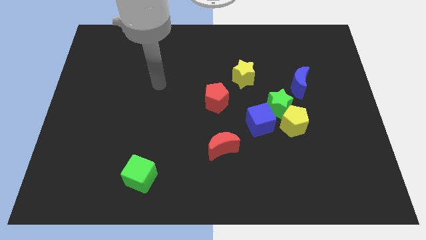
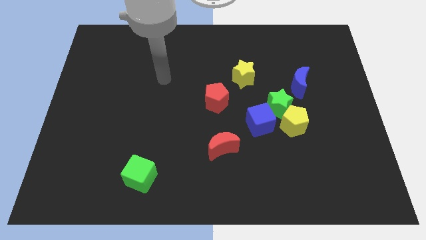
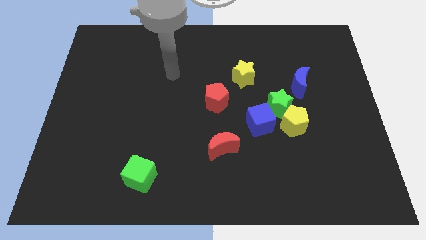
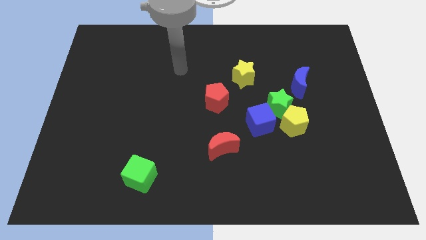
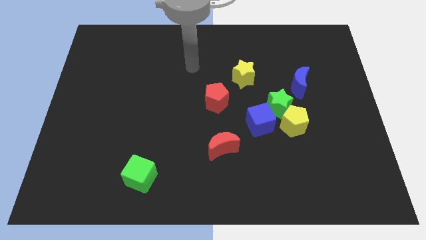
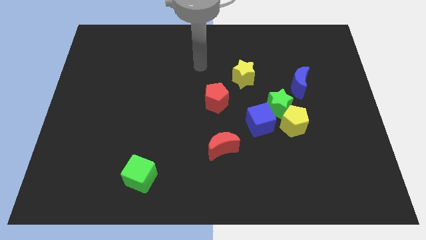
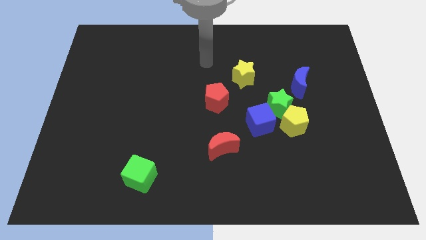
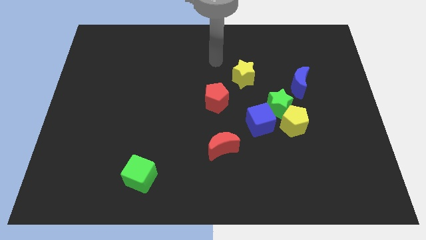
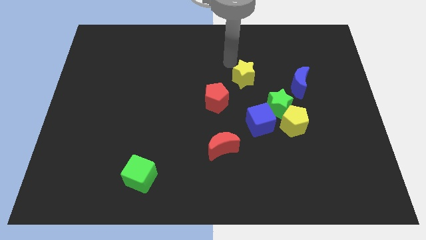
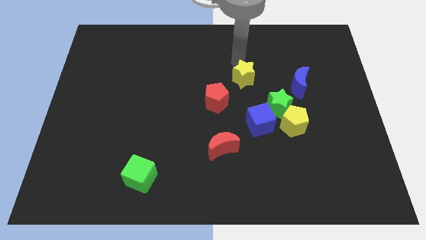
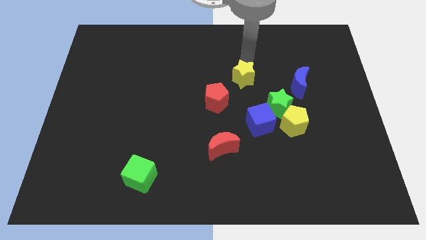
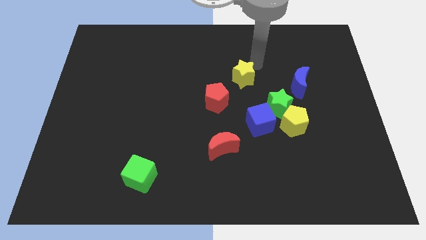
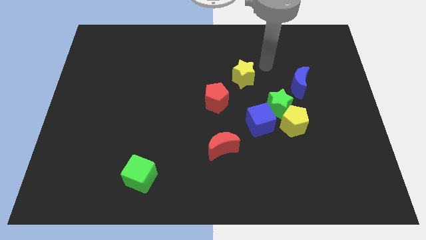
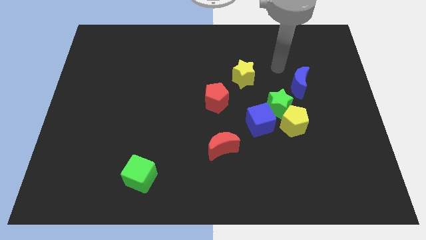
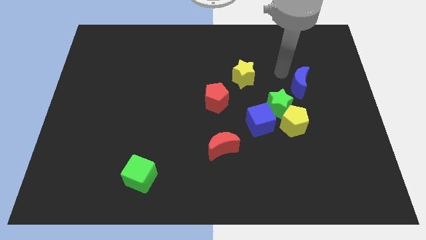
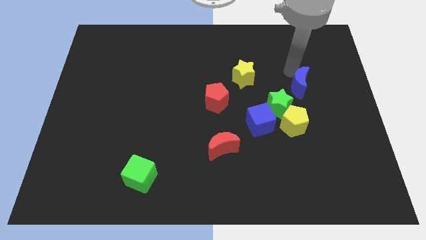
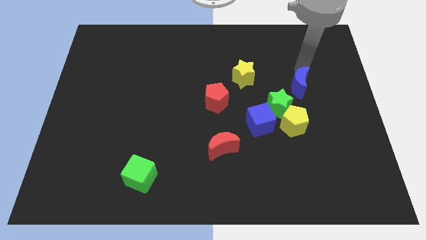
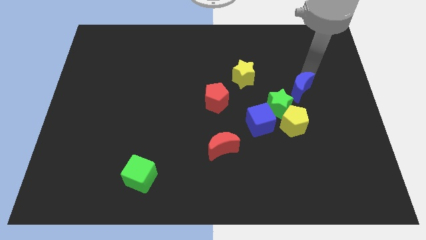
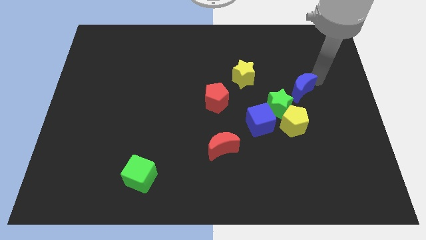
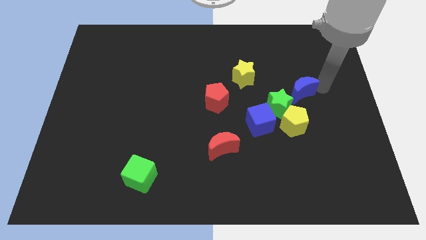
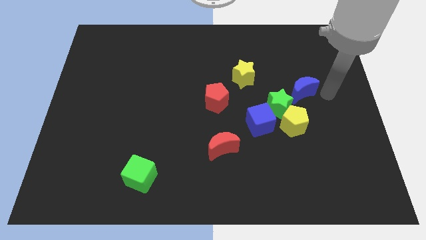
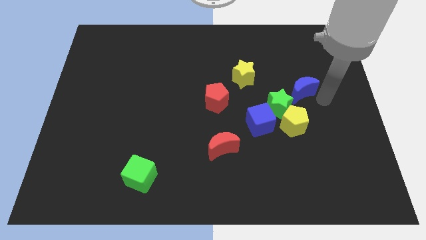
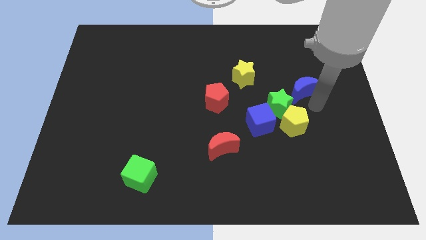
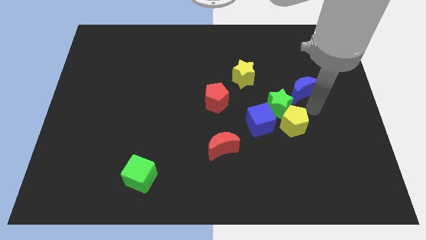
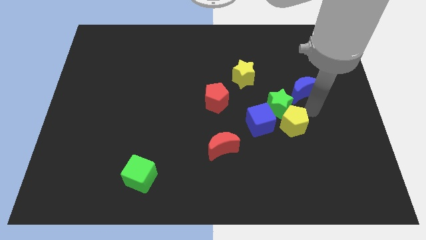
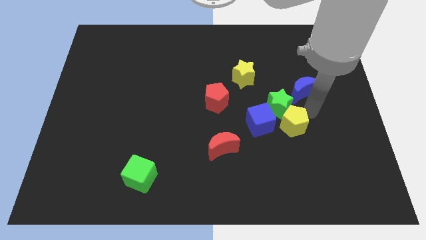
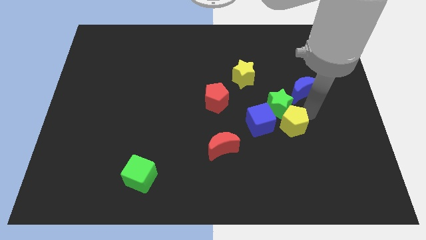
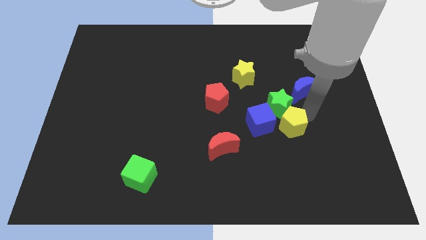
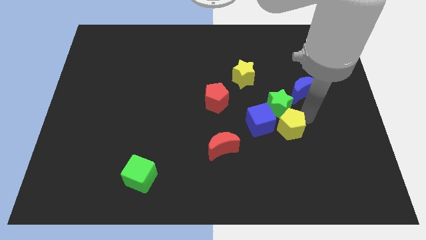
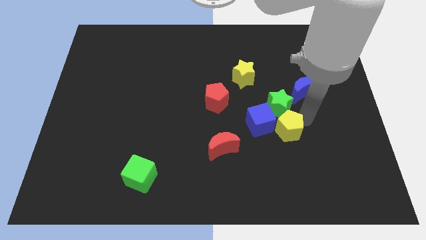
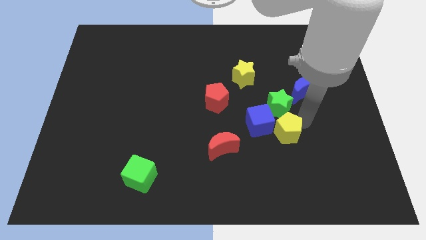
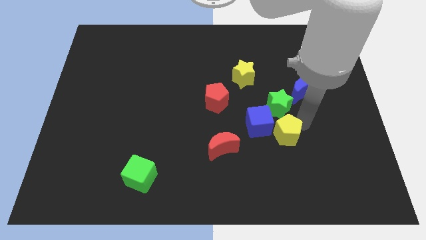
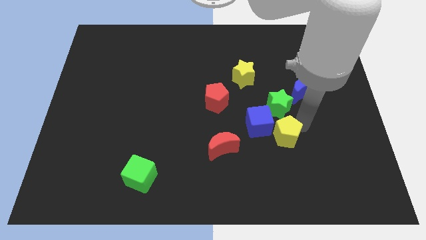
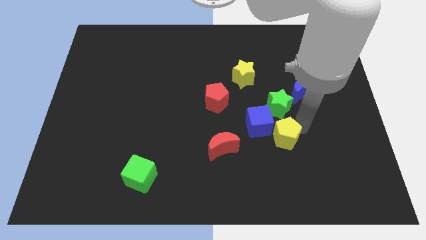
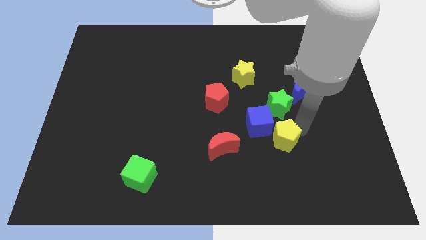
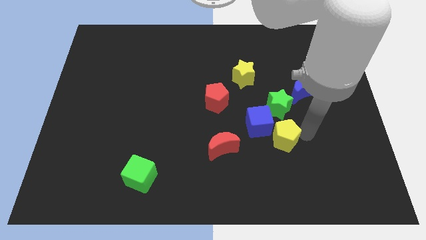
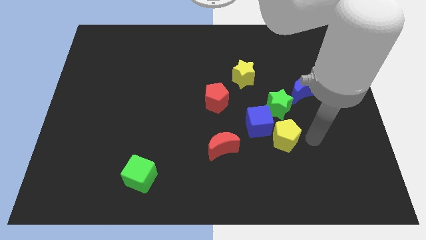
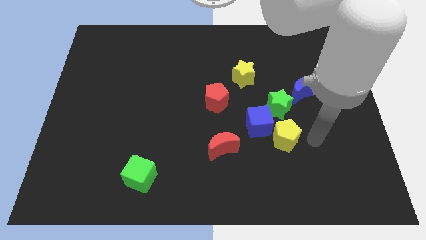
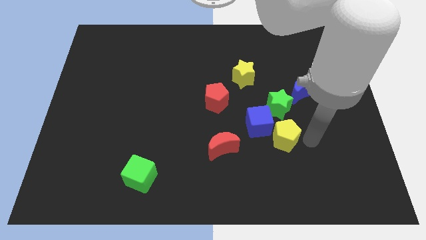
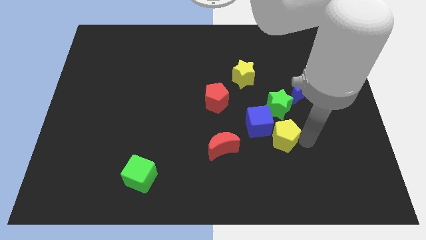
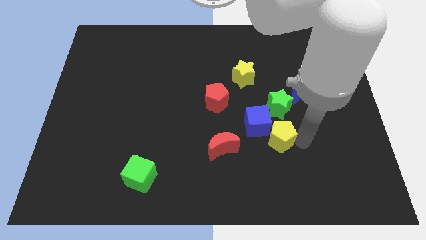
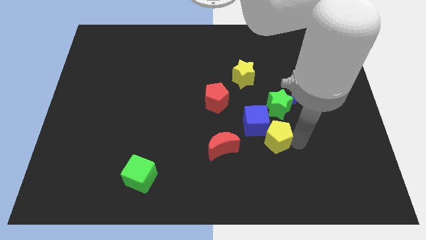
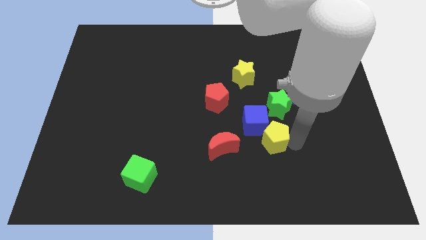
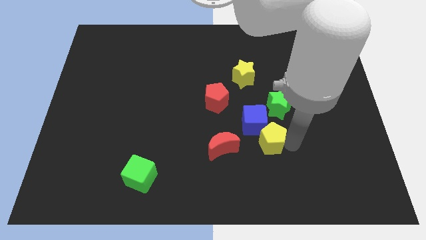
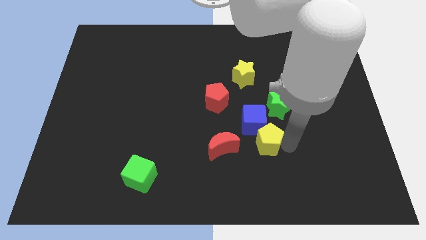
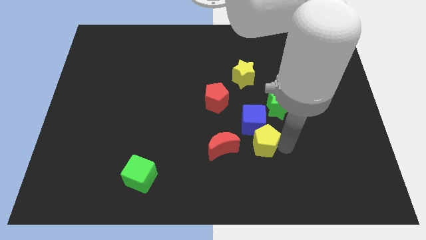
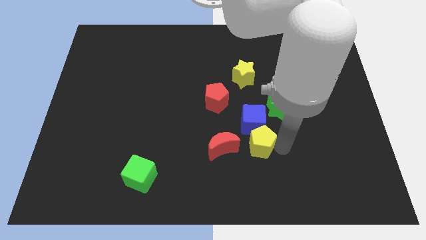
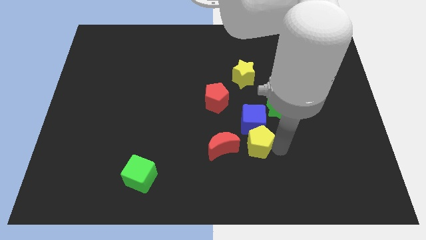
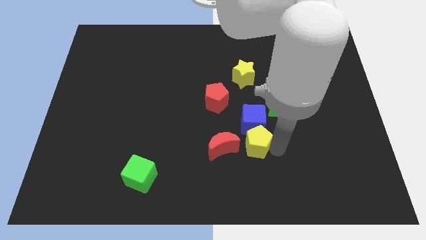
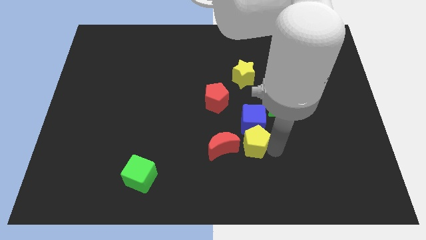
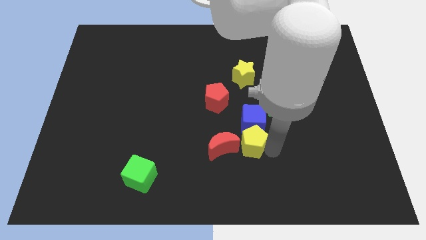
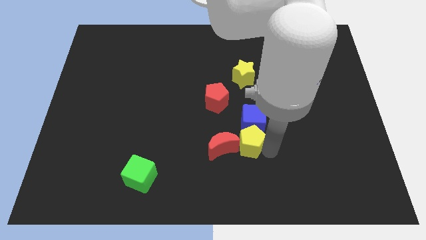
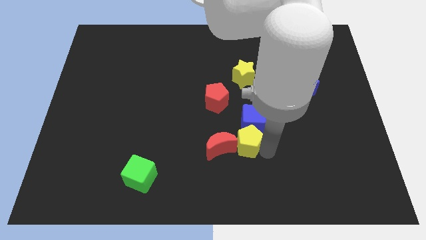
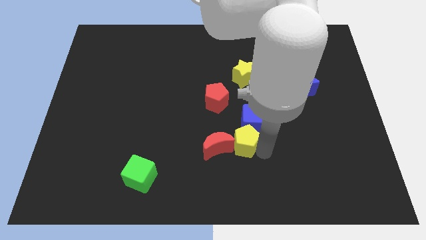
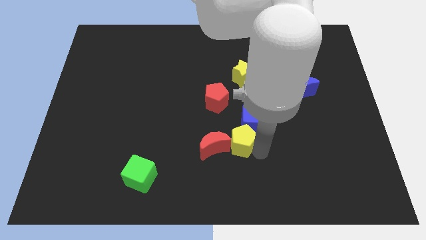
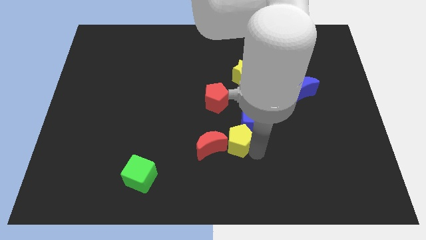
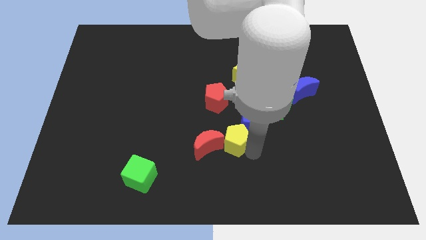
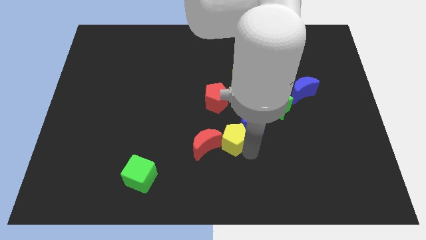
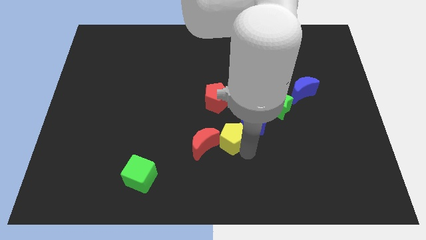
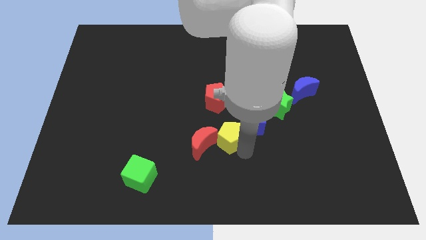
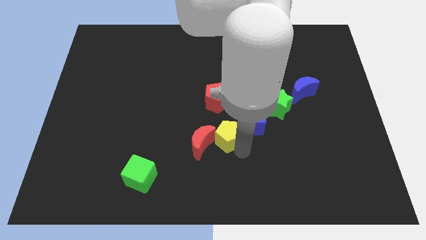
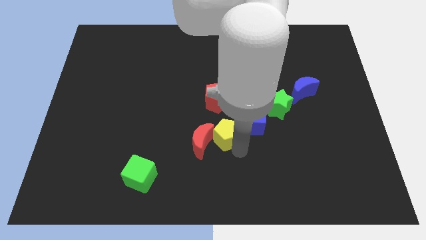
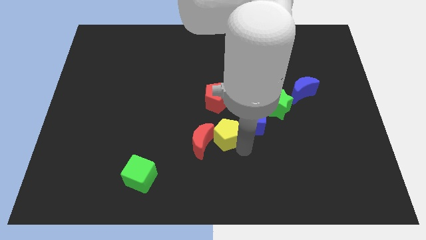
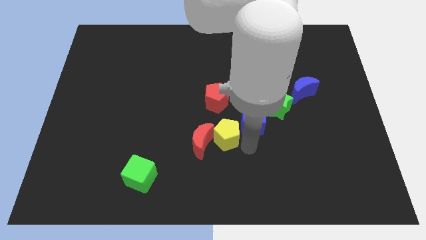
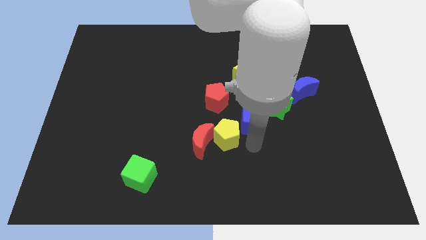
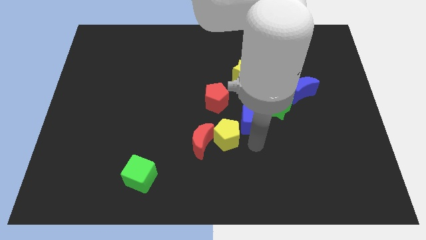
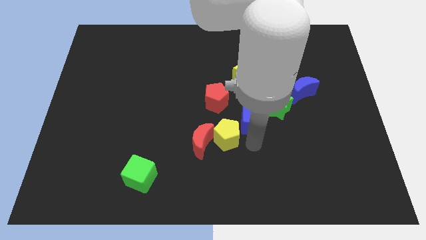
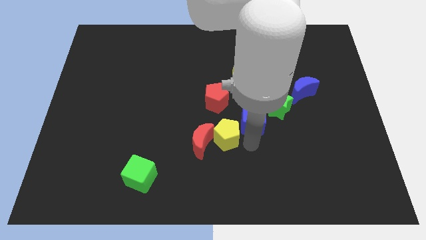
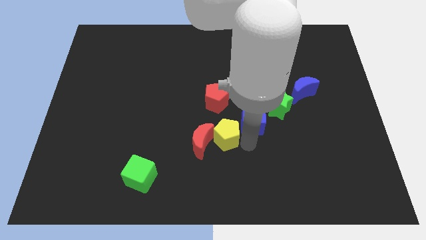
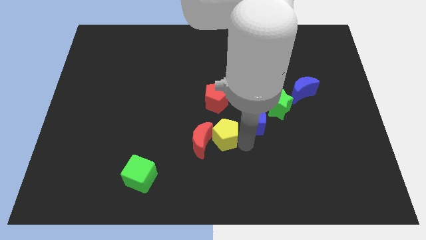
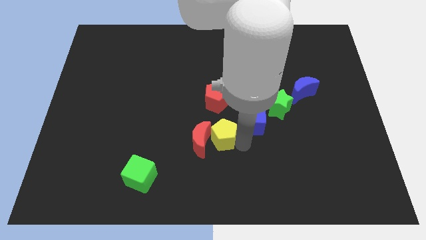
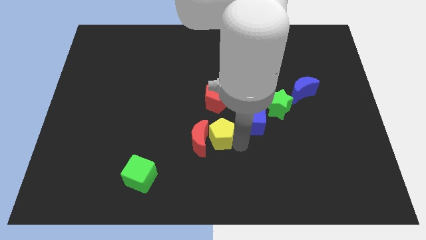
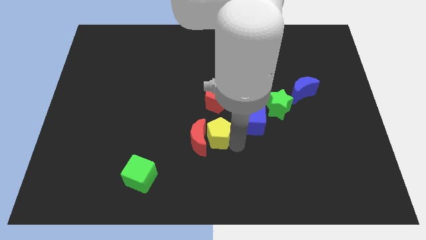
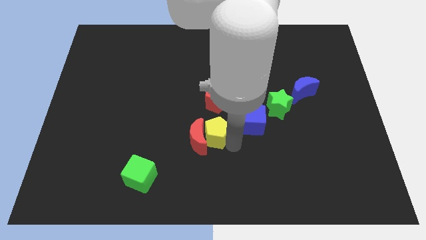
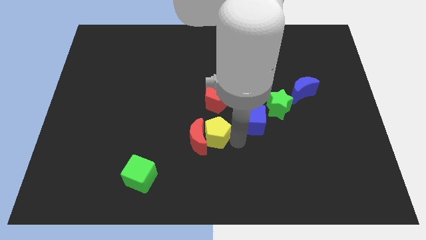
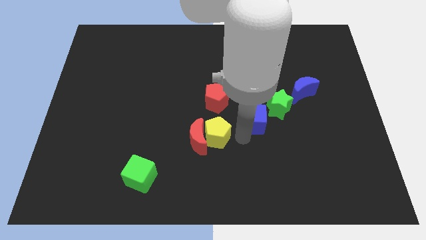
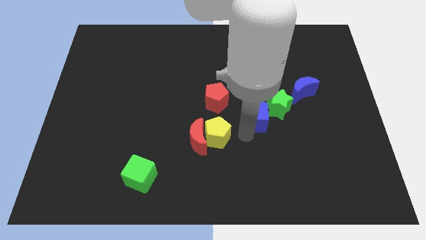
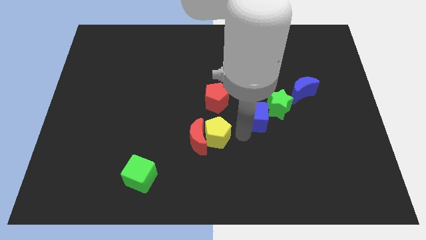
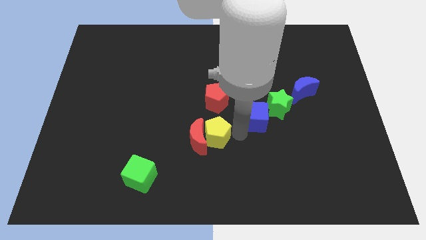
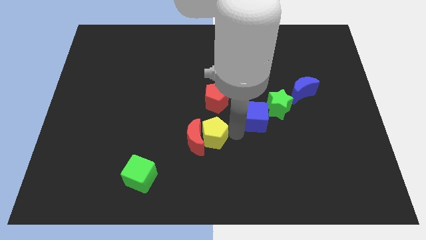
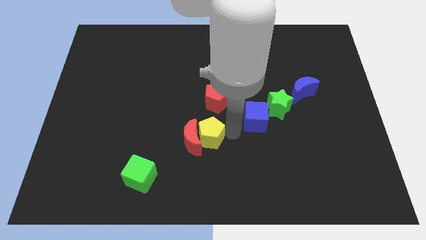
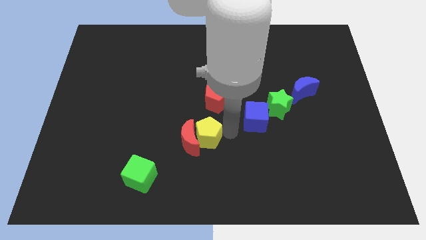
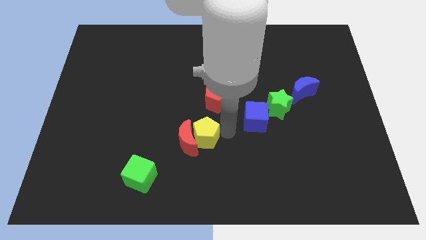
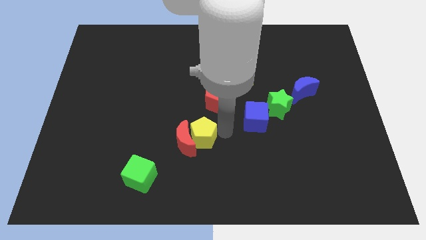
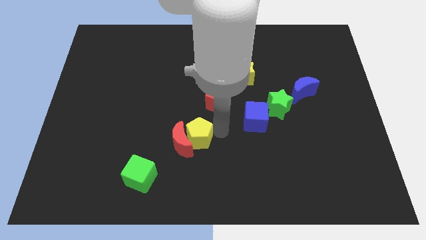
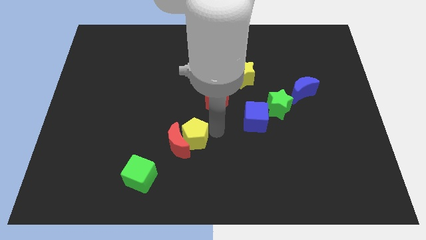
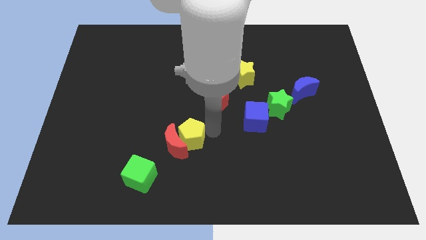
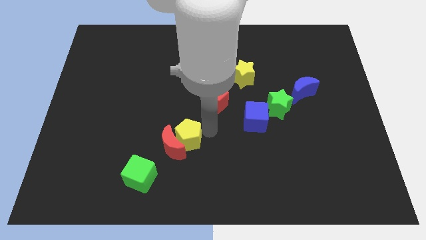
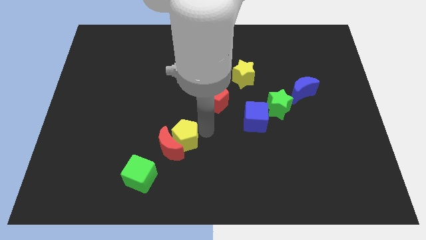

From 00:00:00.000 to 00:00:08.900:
put the yellow pentagon diagonally up and to the right of the green cube
